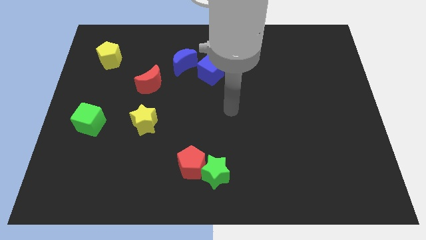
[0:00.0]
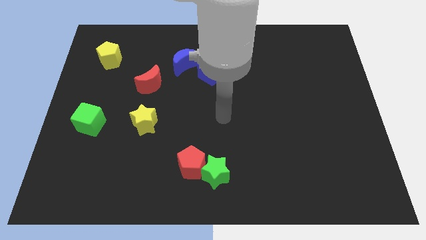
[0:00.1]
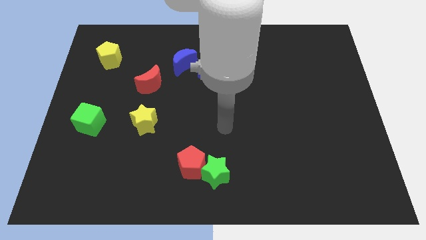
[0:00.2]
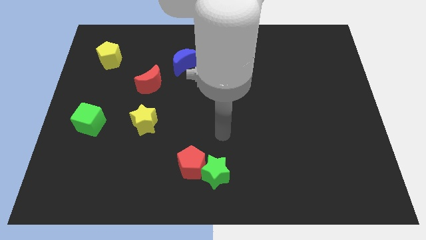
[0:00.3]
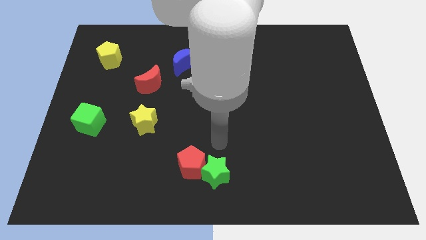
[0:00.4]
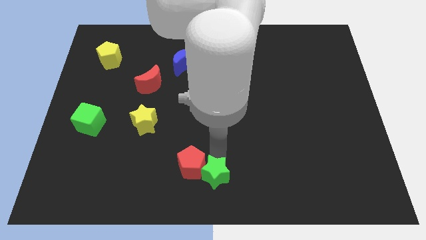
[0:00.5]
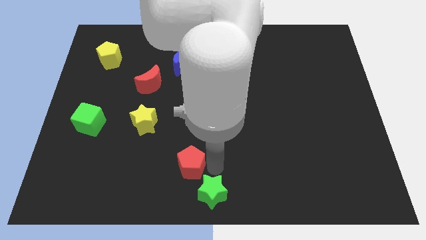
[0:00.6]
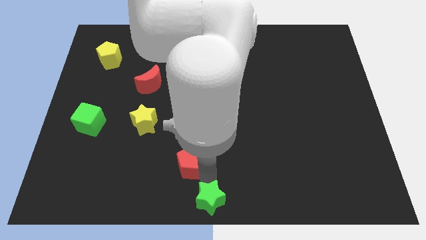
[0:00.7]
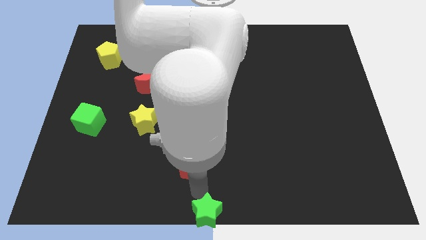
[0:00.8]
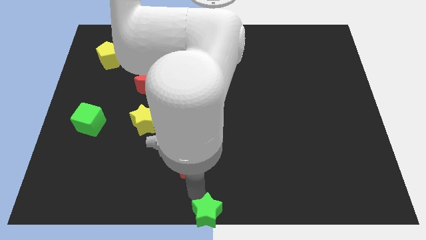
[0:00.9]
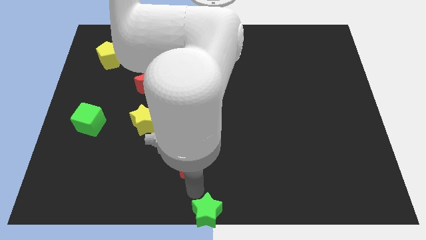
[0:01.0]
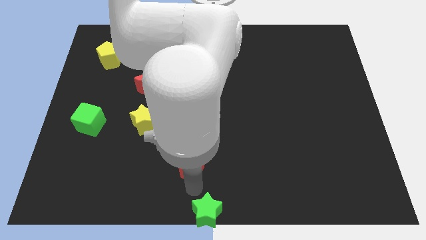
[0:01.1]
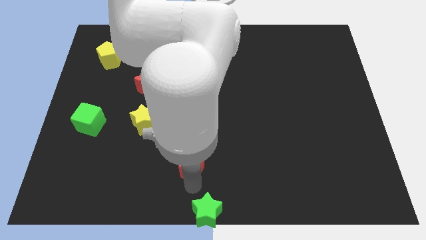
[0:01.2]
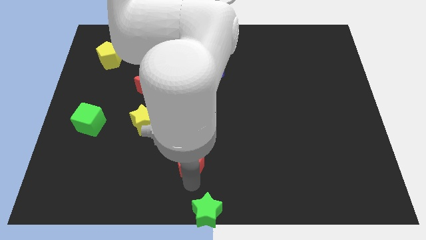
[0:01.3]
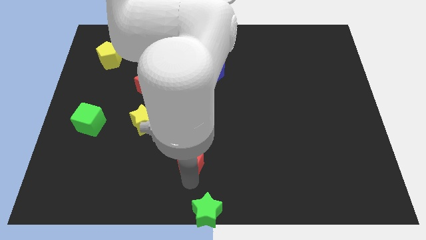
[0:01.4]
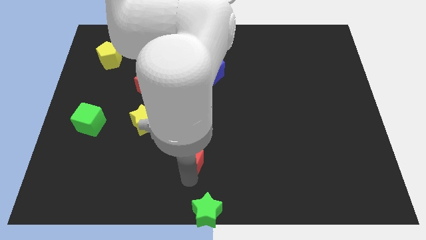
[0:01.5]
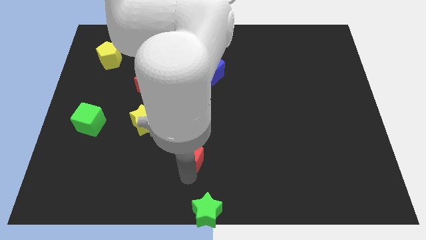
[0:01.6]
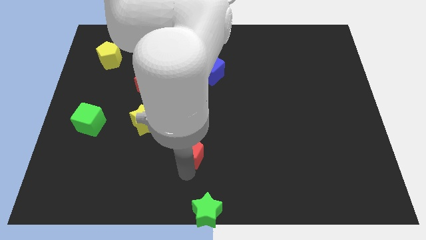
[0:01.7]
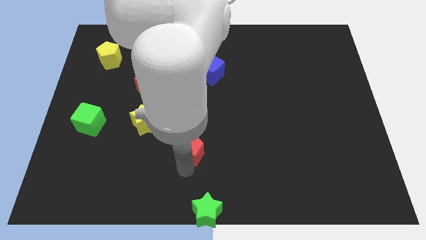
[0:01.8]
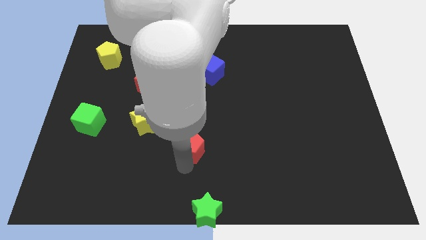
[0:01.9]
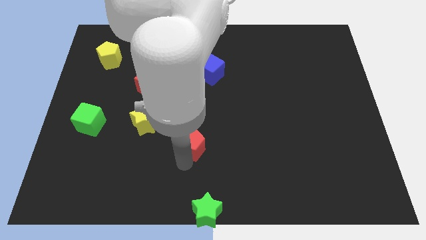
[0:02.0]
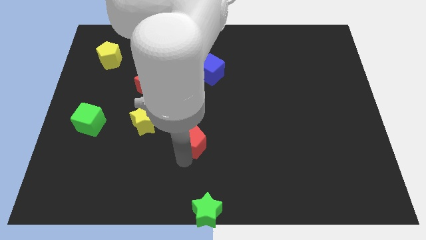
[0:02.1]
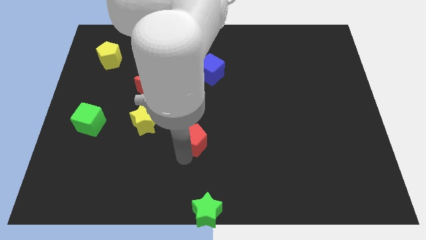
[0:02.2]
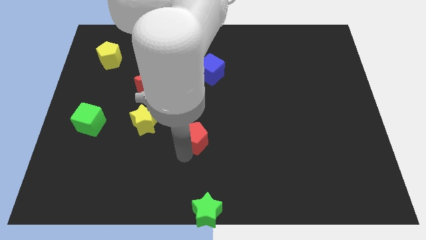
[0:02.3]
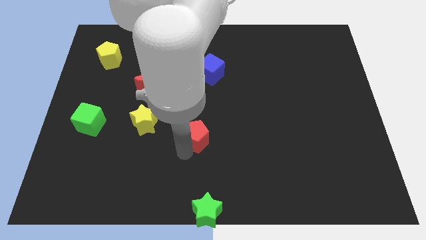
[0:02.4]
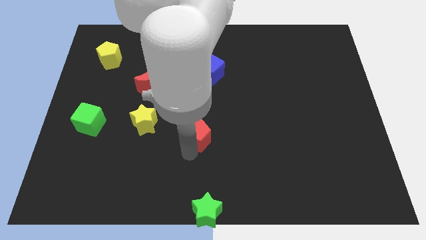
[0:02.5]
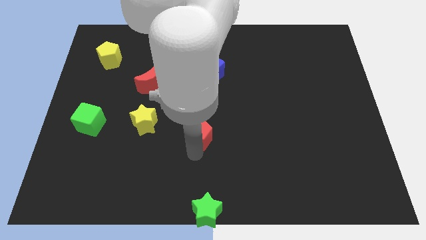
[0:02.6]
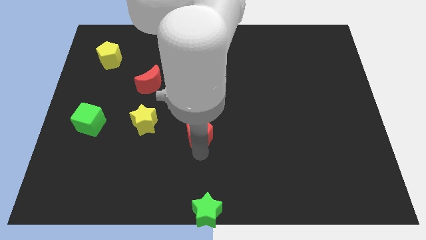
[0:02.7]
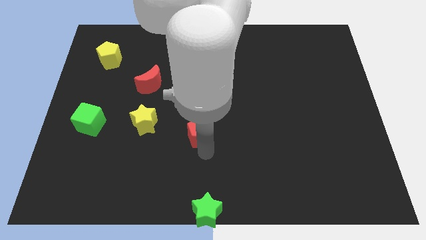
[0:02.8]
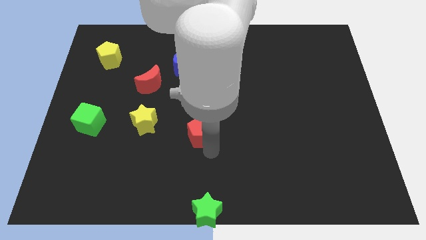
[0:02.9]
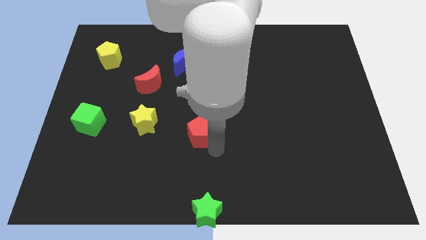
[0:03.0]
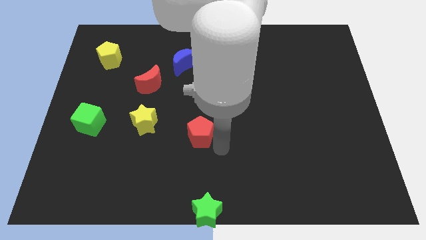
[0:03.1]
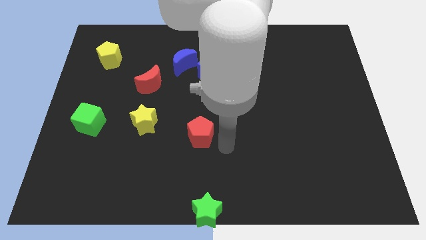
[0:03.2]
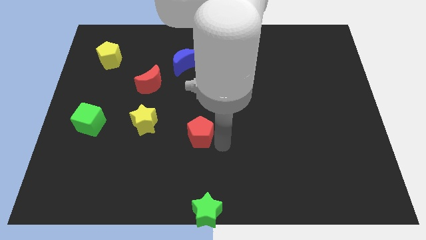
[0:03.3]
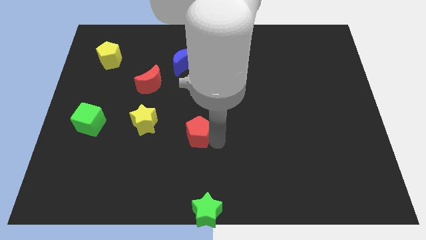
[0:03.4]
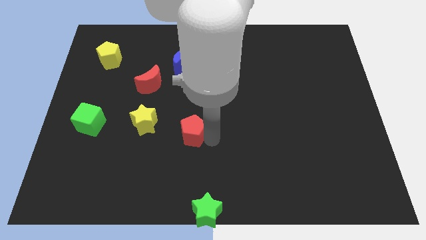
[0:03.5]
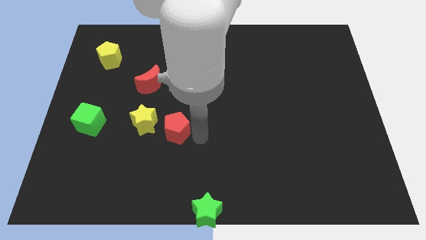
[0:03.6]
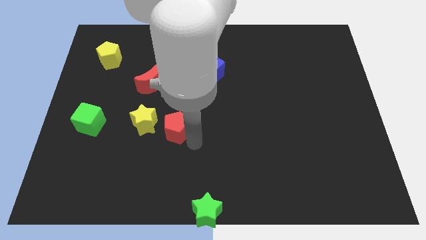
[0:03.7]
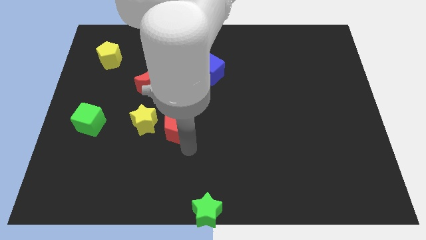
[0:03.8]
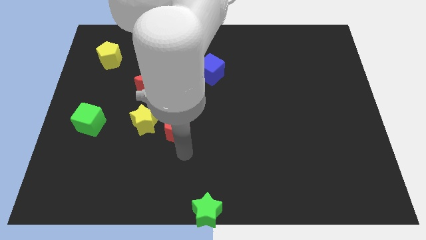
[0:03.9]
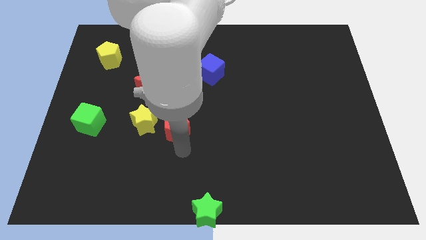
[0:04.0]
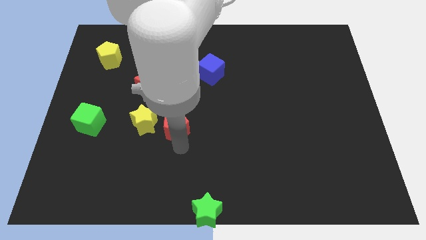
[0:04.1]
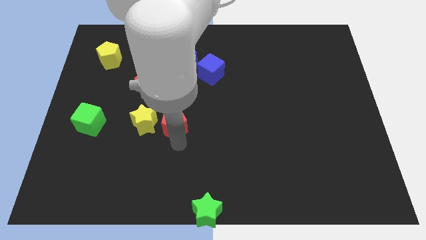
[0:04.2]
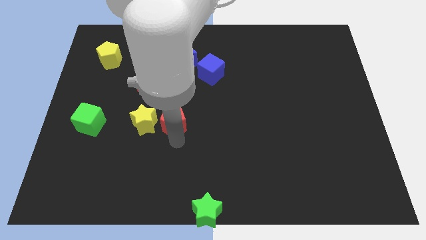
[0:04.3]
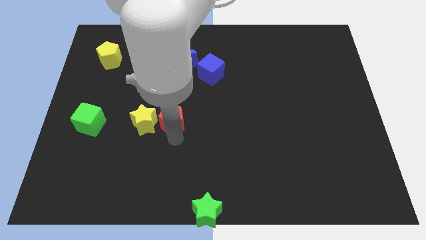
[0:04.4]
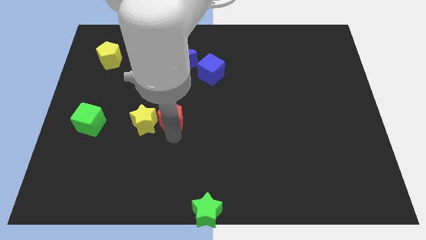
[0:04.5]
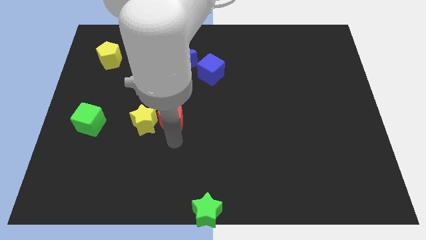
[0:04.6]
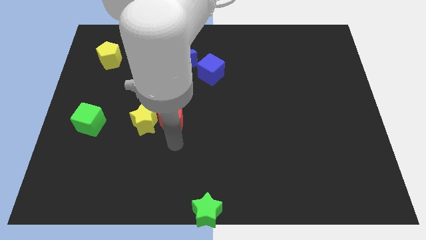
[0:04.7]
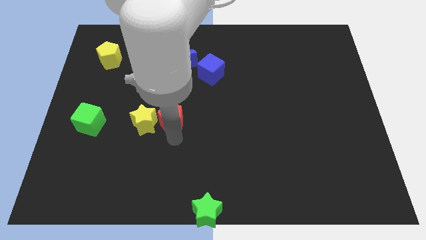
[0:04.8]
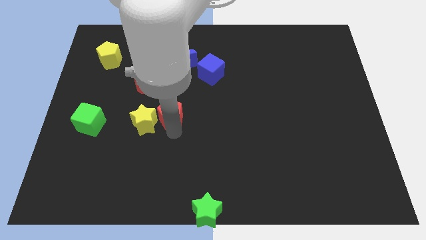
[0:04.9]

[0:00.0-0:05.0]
slide the red pentagon to the bottom right side of the red moon

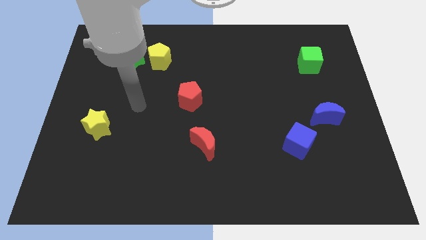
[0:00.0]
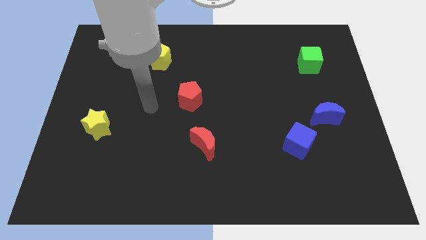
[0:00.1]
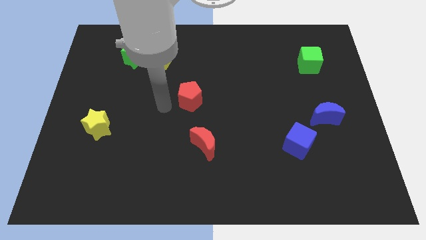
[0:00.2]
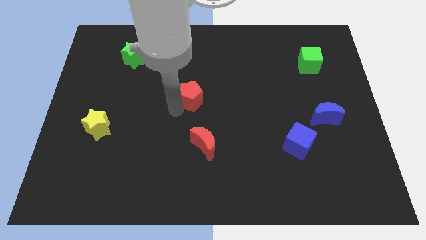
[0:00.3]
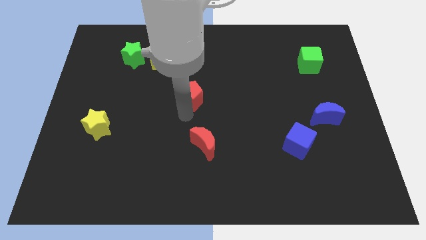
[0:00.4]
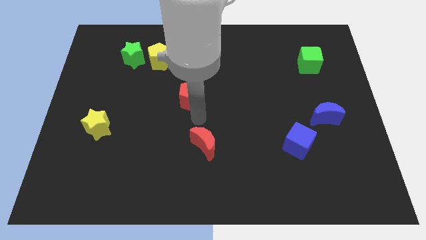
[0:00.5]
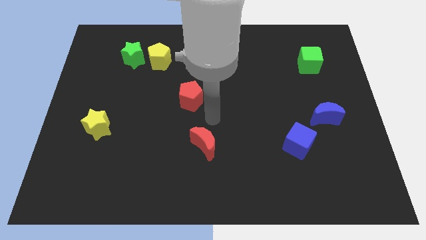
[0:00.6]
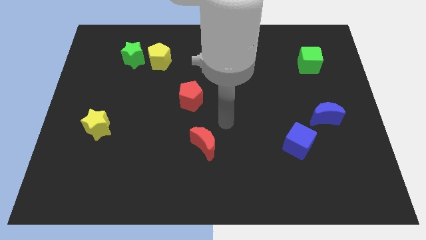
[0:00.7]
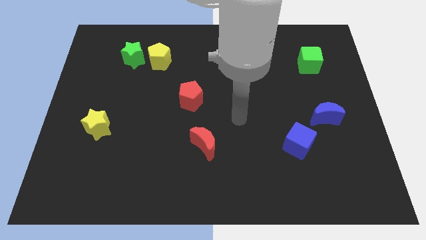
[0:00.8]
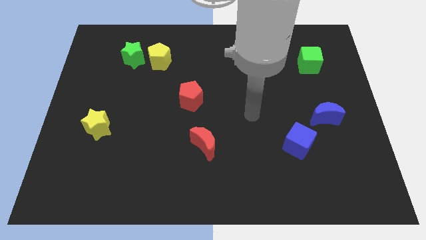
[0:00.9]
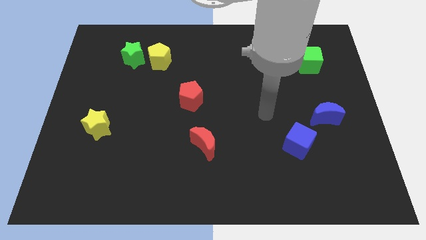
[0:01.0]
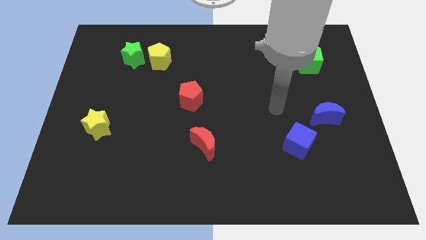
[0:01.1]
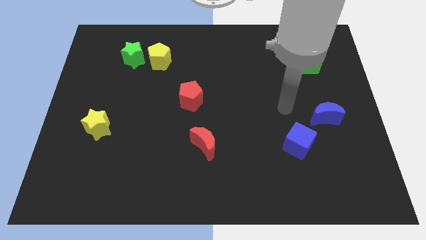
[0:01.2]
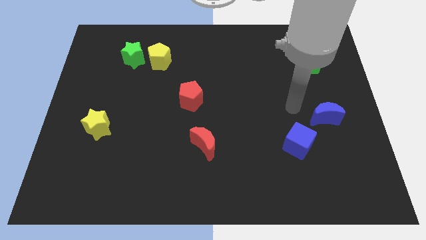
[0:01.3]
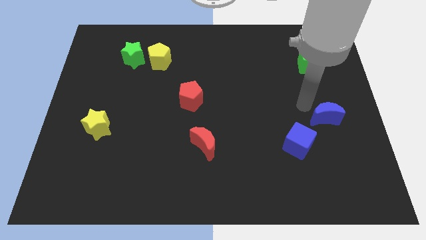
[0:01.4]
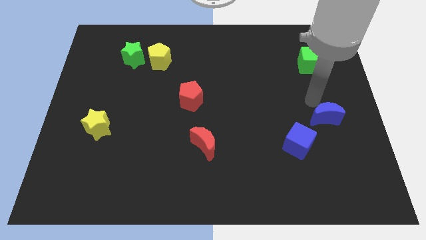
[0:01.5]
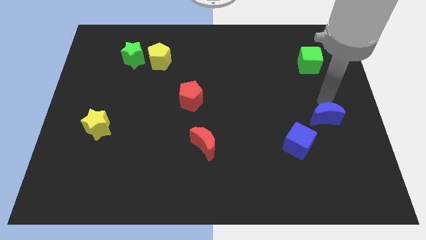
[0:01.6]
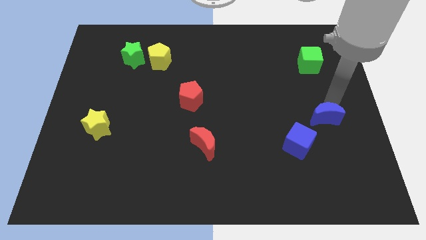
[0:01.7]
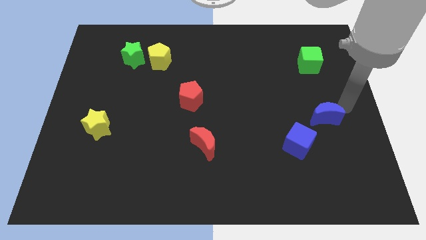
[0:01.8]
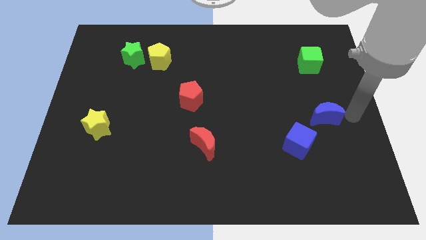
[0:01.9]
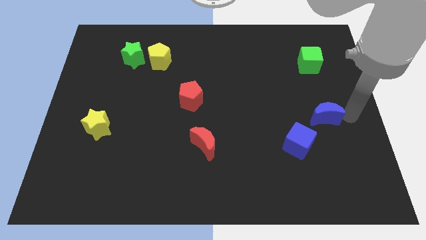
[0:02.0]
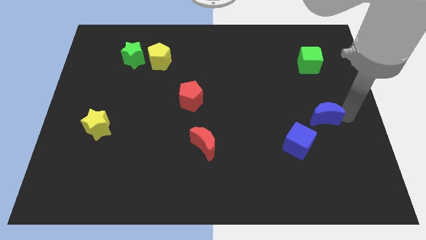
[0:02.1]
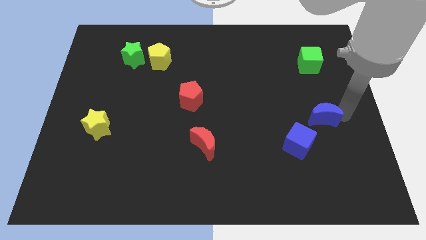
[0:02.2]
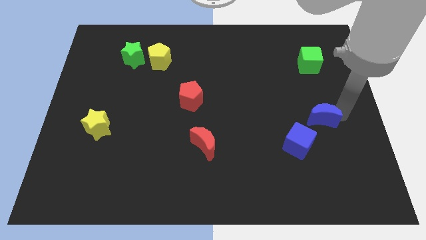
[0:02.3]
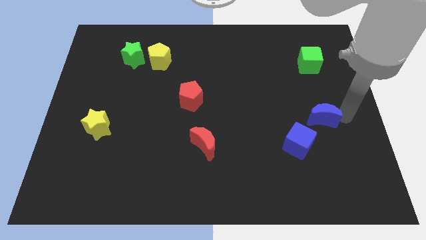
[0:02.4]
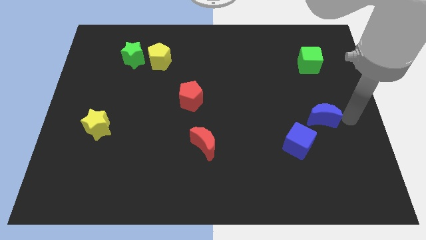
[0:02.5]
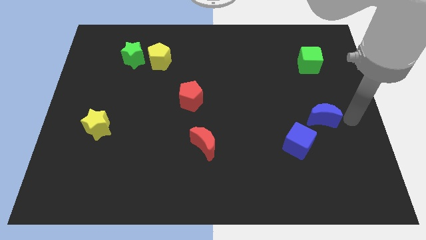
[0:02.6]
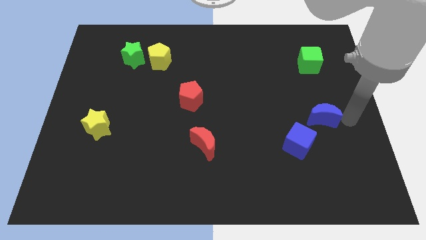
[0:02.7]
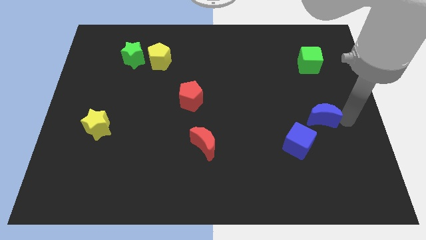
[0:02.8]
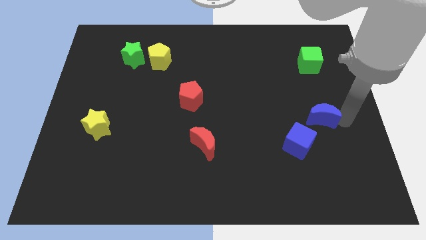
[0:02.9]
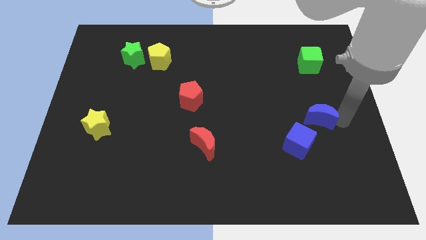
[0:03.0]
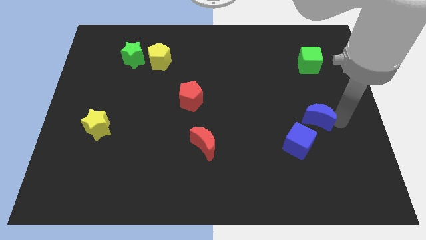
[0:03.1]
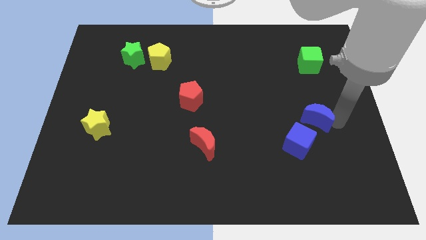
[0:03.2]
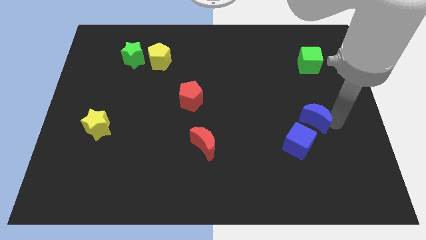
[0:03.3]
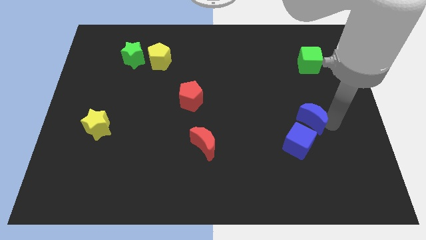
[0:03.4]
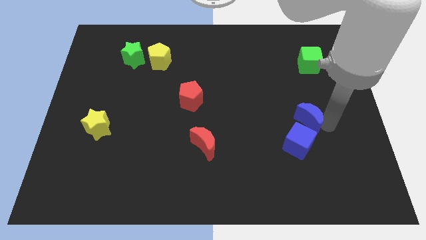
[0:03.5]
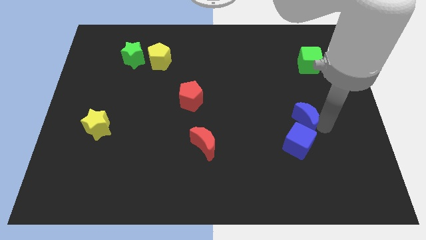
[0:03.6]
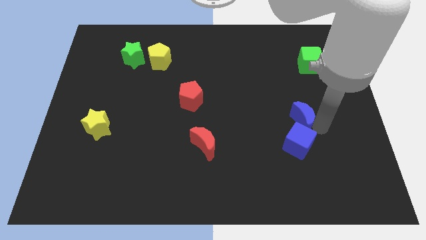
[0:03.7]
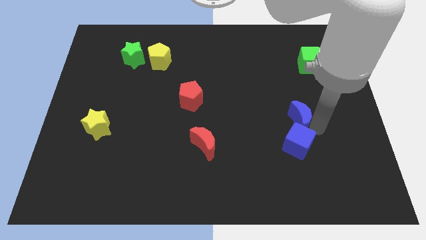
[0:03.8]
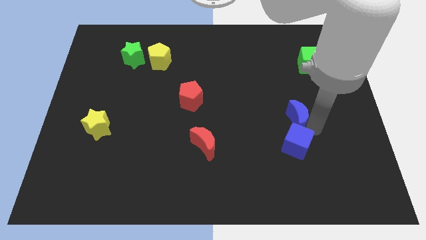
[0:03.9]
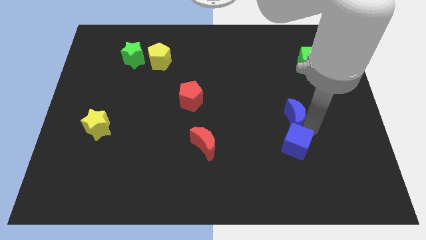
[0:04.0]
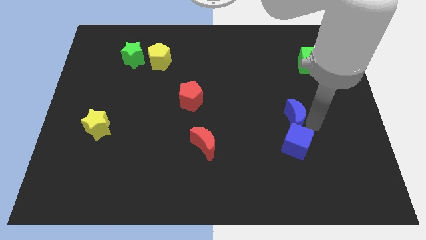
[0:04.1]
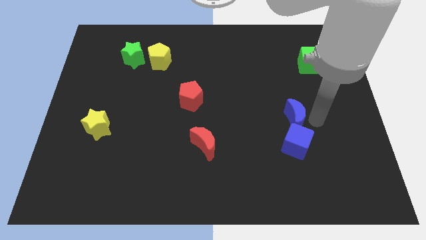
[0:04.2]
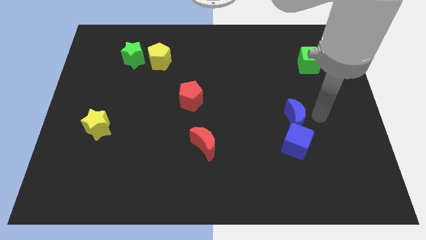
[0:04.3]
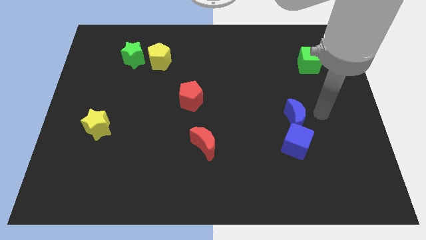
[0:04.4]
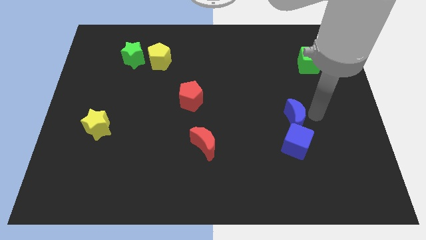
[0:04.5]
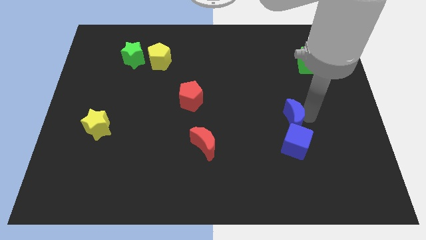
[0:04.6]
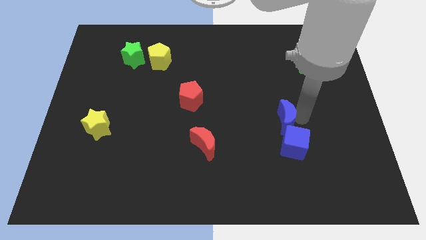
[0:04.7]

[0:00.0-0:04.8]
slide the blue moon diagonally up and to the left of the blue cube
